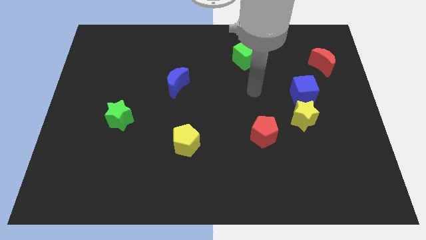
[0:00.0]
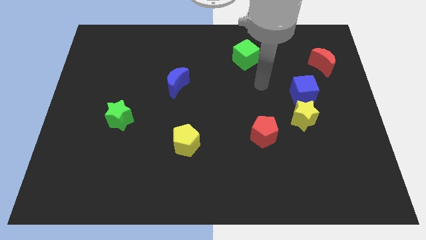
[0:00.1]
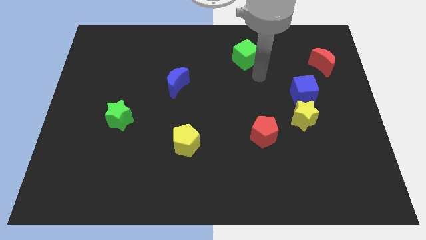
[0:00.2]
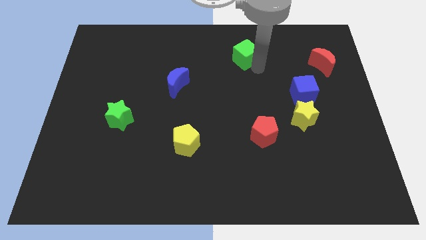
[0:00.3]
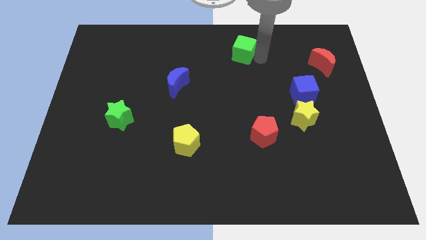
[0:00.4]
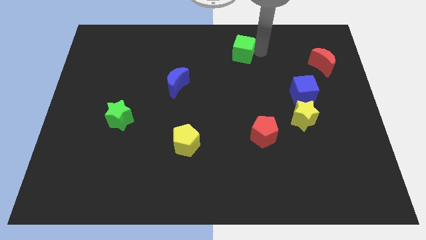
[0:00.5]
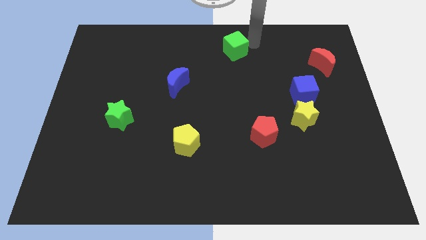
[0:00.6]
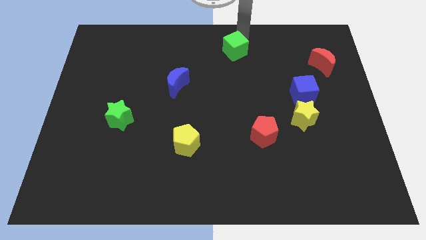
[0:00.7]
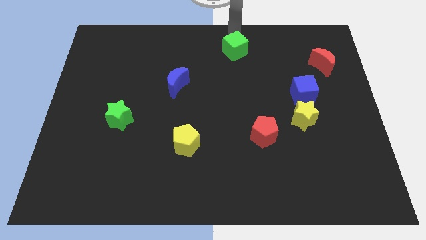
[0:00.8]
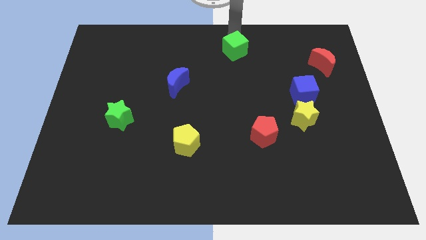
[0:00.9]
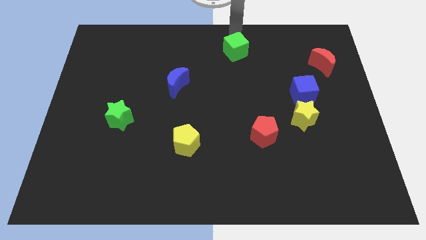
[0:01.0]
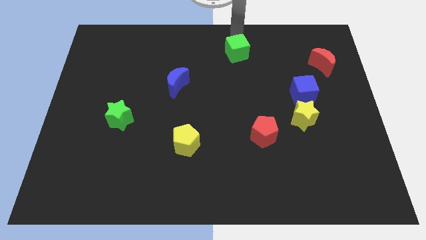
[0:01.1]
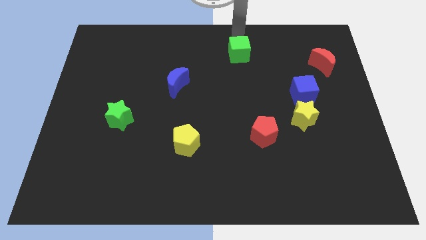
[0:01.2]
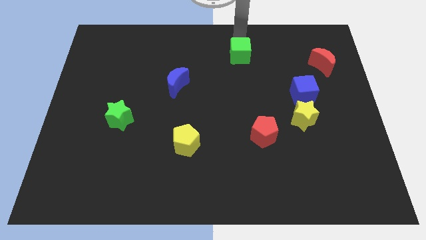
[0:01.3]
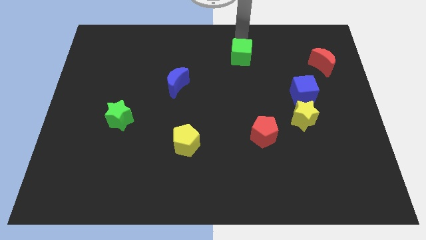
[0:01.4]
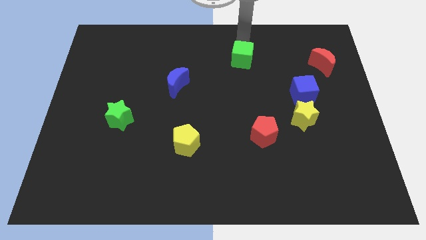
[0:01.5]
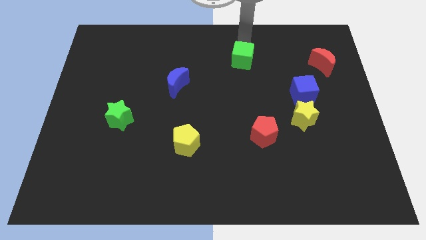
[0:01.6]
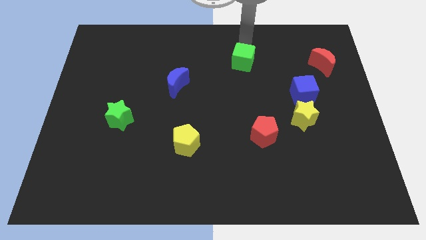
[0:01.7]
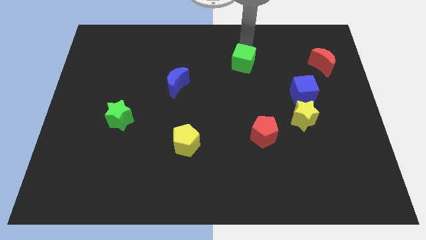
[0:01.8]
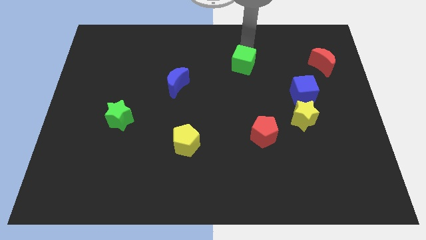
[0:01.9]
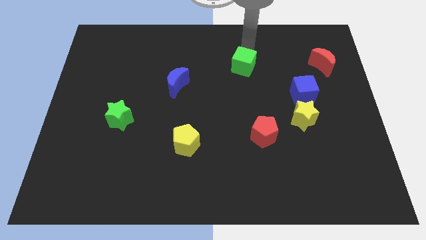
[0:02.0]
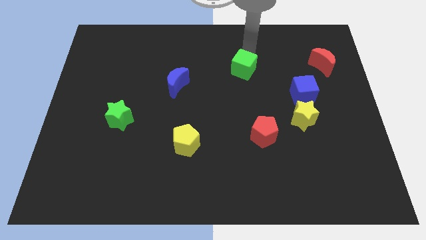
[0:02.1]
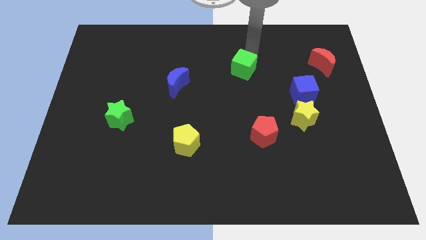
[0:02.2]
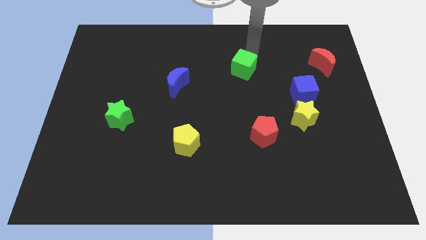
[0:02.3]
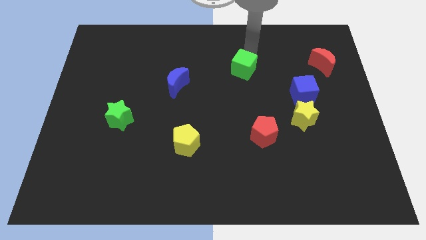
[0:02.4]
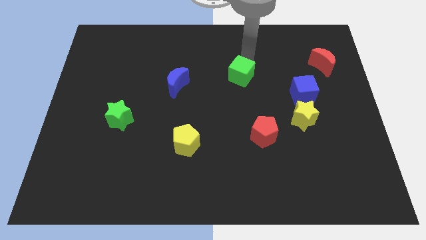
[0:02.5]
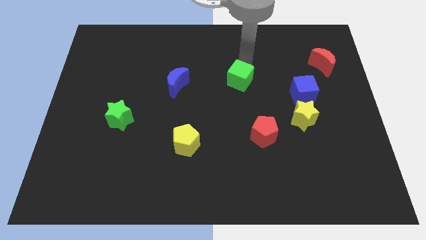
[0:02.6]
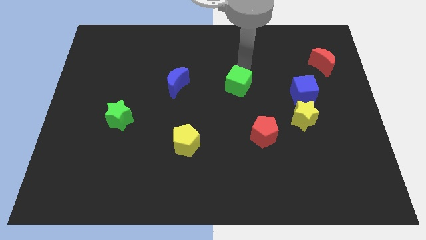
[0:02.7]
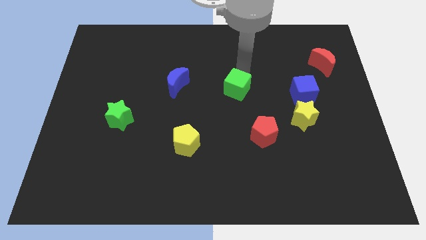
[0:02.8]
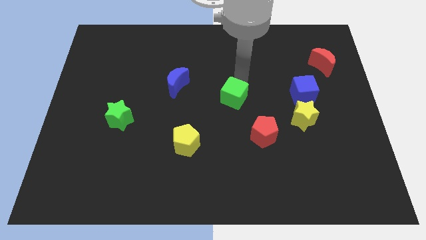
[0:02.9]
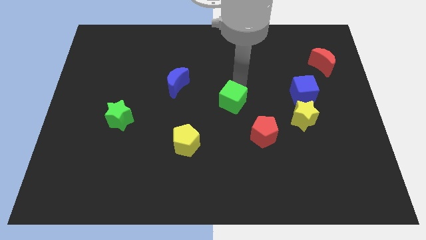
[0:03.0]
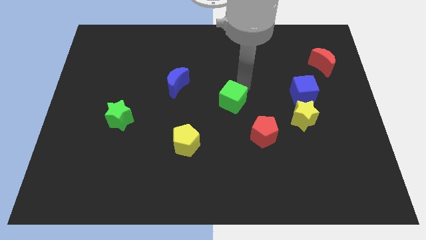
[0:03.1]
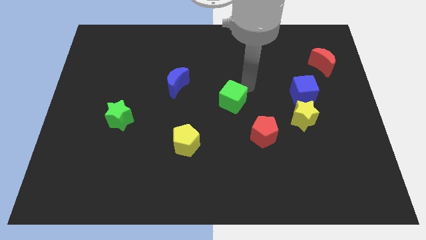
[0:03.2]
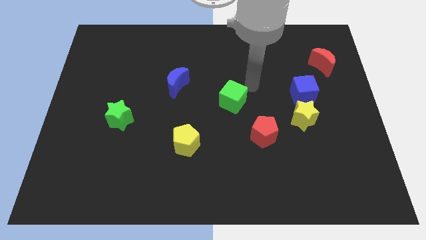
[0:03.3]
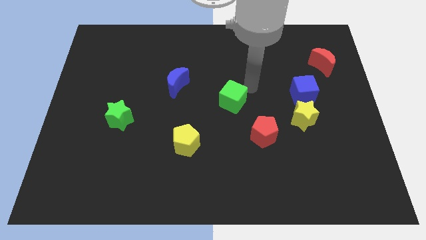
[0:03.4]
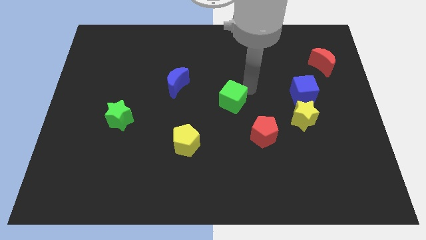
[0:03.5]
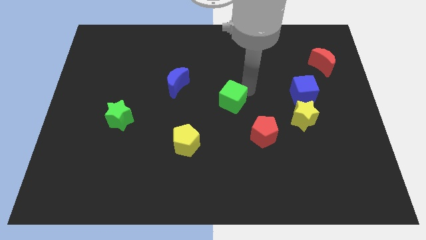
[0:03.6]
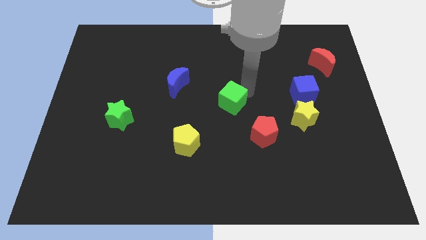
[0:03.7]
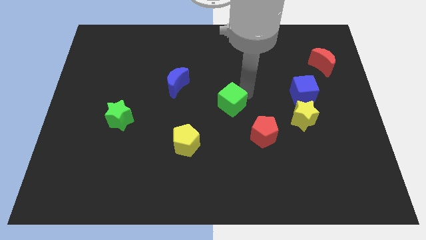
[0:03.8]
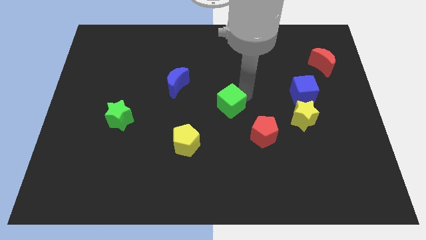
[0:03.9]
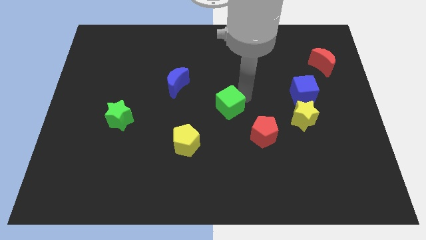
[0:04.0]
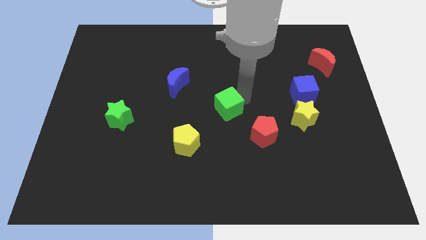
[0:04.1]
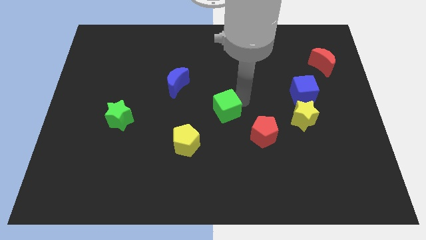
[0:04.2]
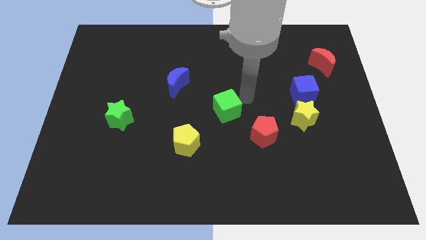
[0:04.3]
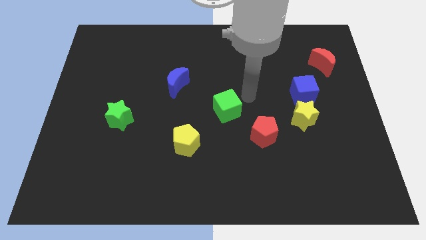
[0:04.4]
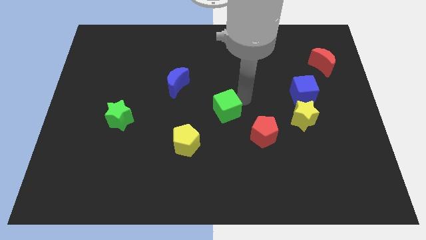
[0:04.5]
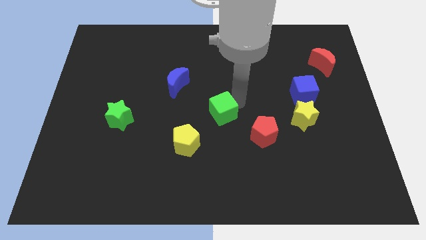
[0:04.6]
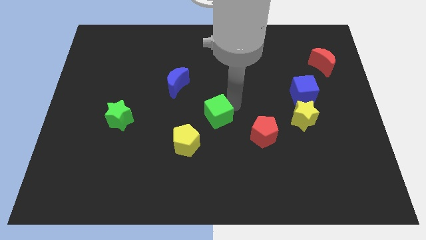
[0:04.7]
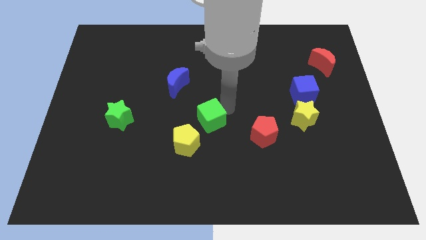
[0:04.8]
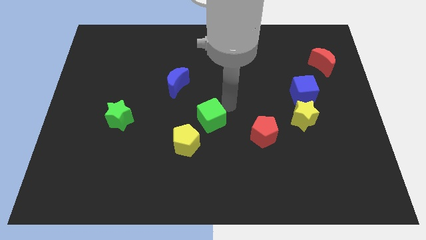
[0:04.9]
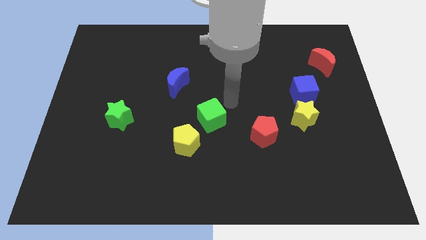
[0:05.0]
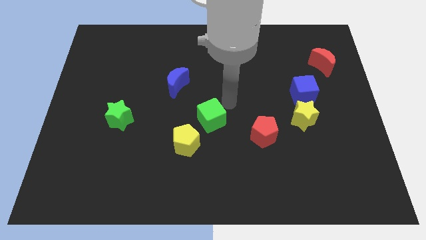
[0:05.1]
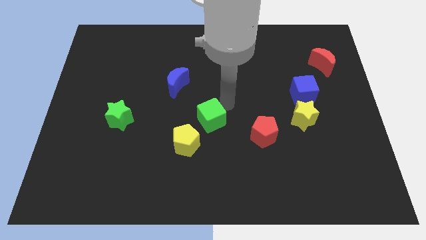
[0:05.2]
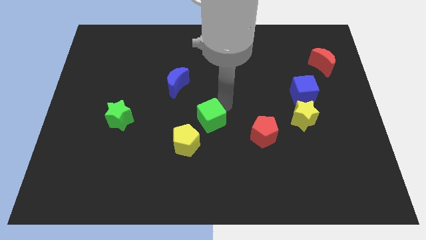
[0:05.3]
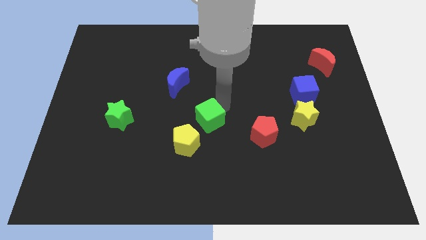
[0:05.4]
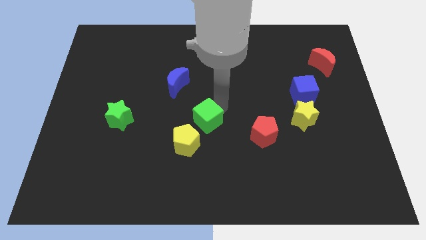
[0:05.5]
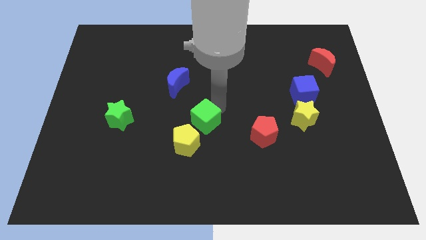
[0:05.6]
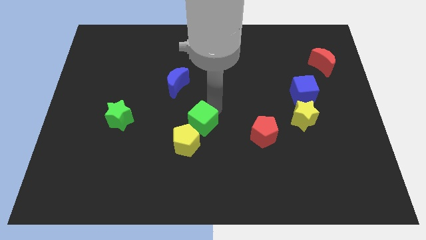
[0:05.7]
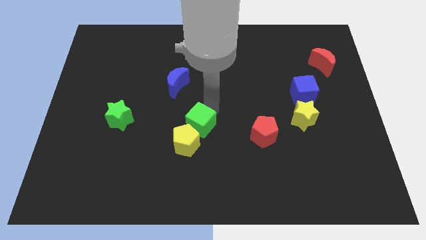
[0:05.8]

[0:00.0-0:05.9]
put the green cube next to the yellow pentagon

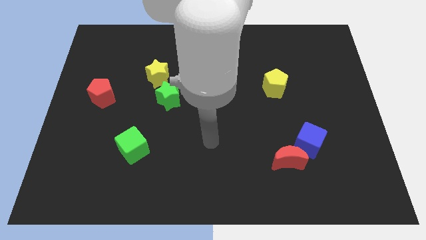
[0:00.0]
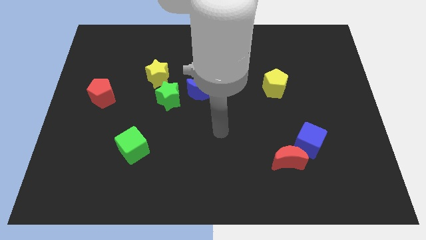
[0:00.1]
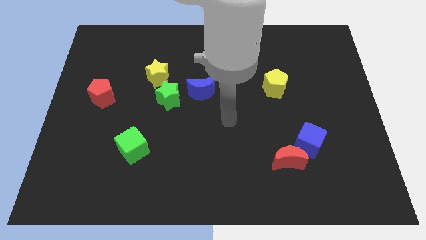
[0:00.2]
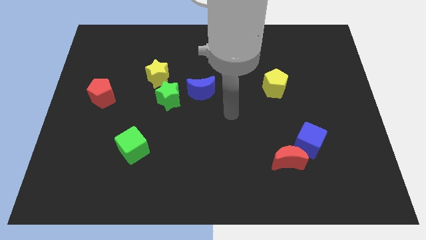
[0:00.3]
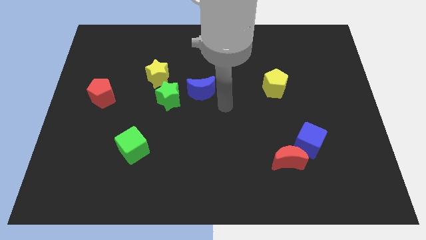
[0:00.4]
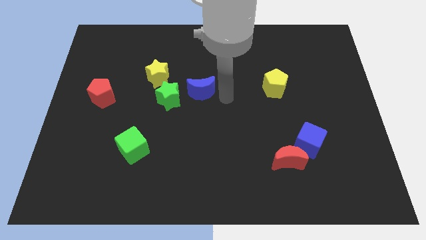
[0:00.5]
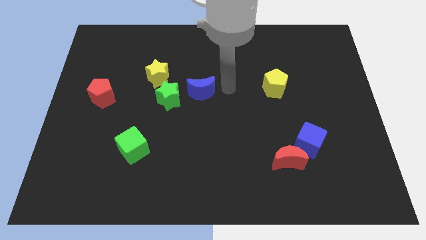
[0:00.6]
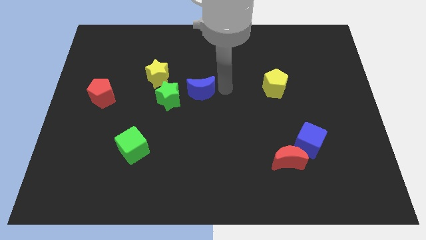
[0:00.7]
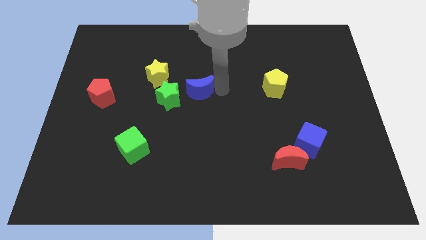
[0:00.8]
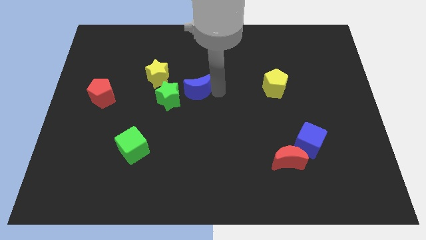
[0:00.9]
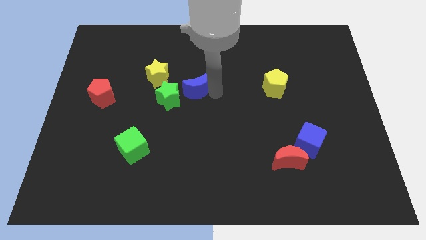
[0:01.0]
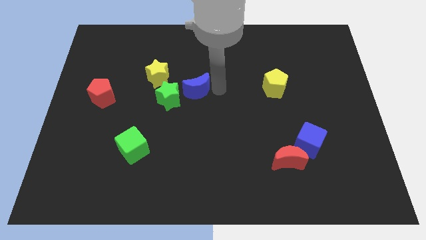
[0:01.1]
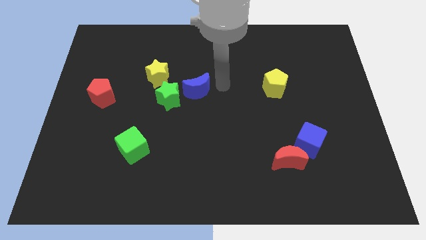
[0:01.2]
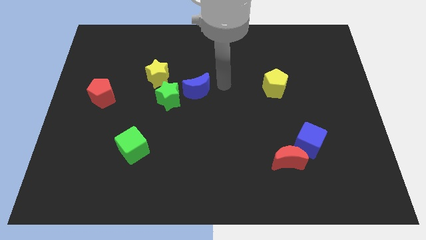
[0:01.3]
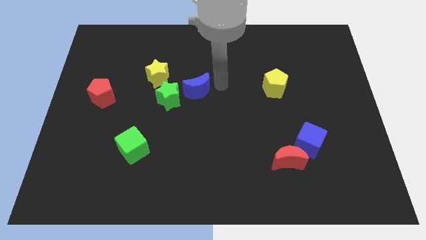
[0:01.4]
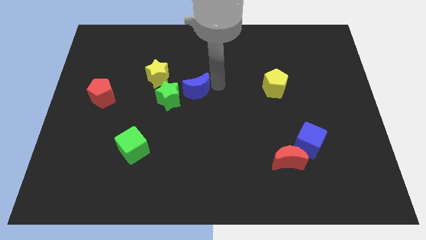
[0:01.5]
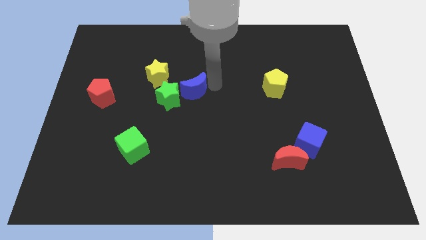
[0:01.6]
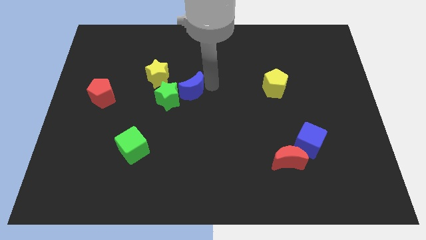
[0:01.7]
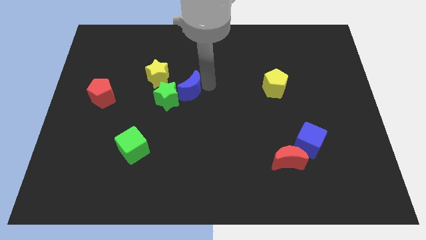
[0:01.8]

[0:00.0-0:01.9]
put the blue moon to the green star
